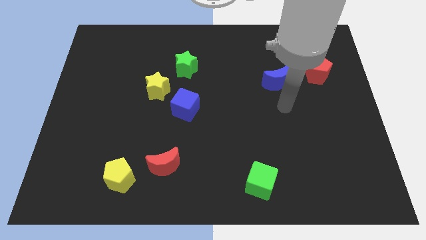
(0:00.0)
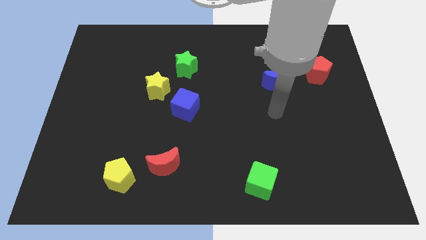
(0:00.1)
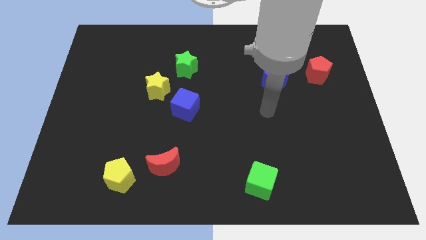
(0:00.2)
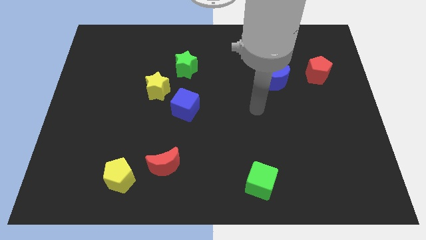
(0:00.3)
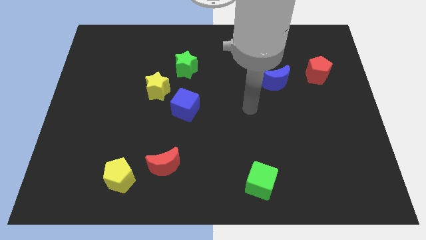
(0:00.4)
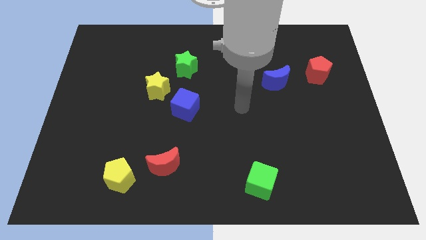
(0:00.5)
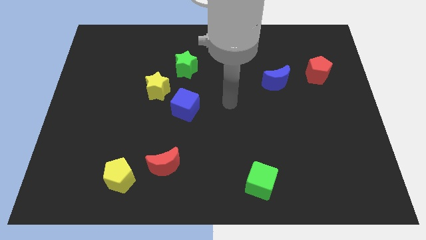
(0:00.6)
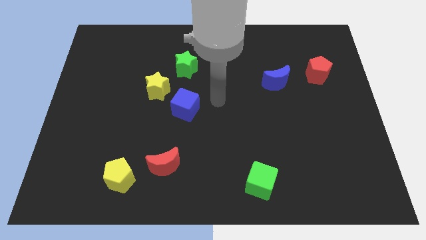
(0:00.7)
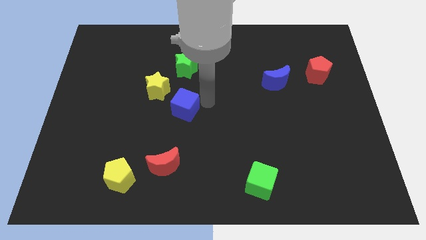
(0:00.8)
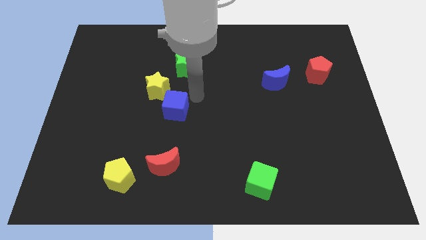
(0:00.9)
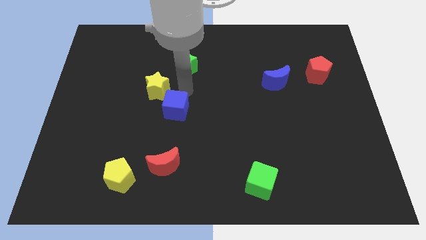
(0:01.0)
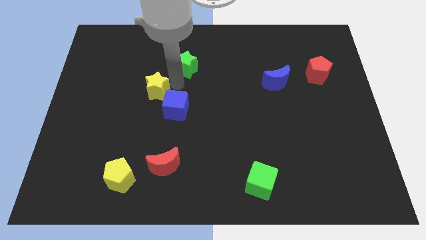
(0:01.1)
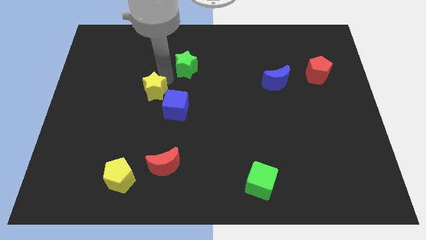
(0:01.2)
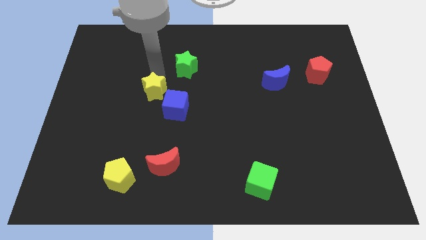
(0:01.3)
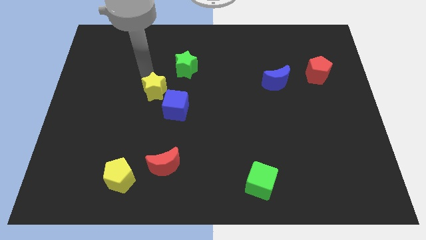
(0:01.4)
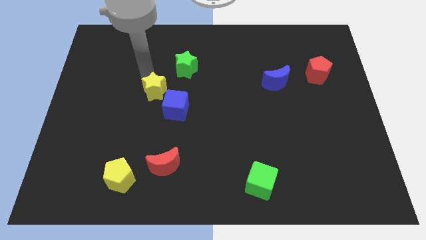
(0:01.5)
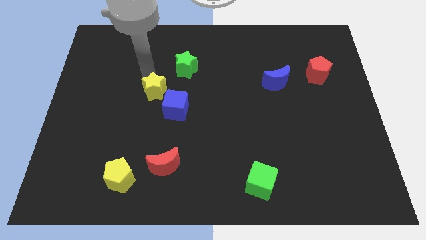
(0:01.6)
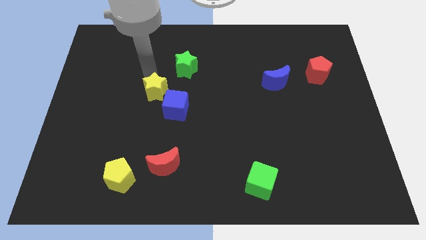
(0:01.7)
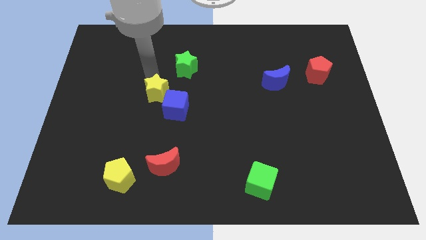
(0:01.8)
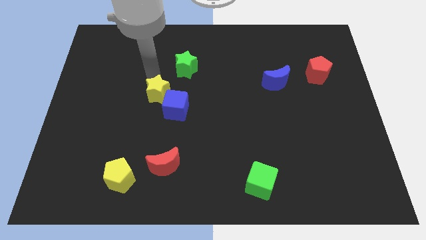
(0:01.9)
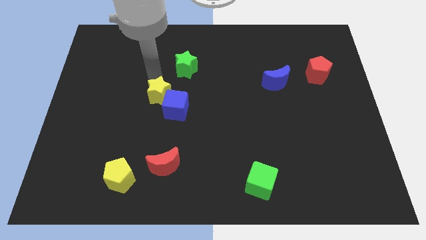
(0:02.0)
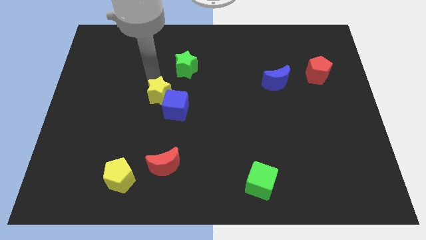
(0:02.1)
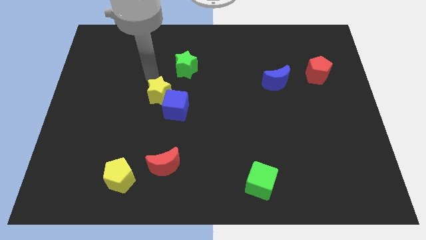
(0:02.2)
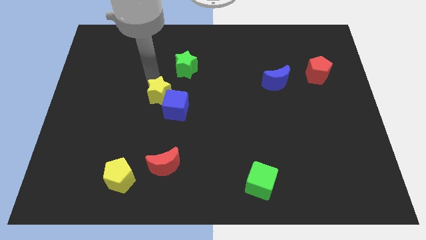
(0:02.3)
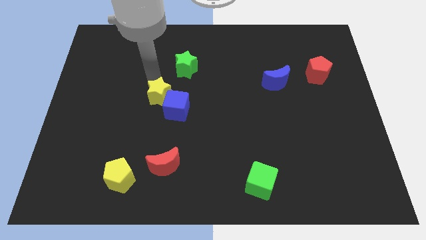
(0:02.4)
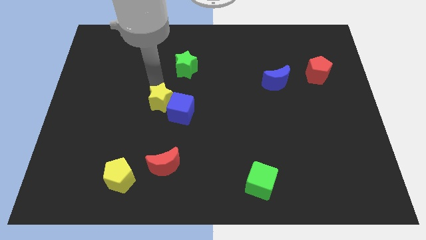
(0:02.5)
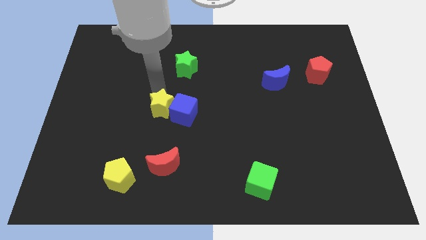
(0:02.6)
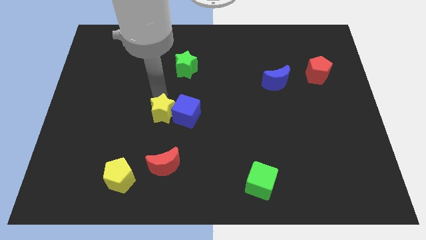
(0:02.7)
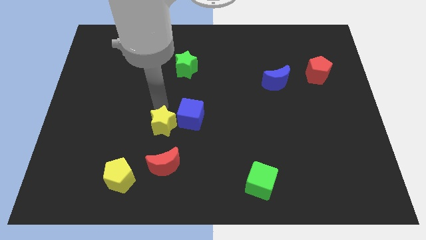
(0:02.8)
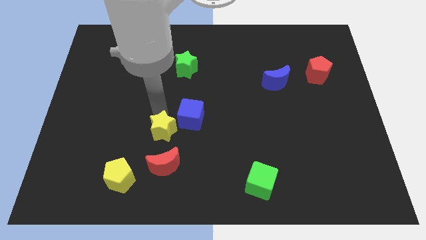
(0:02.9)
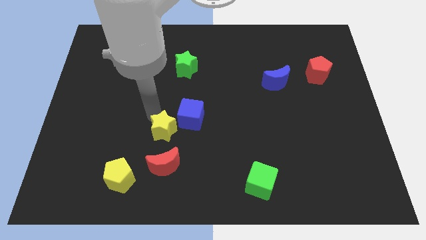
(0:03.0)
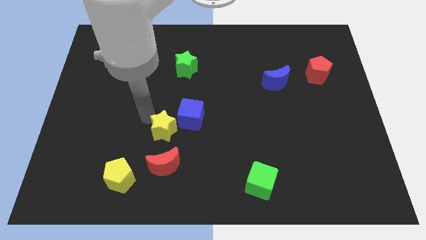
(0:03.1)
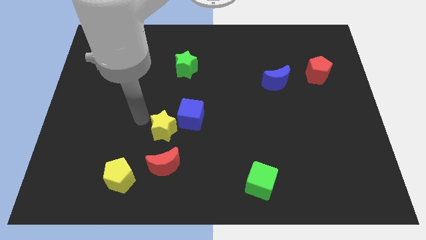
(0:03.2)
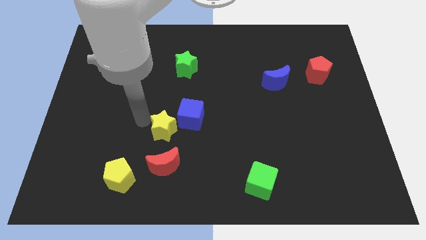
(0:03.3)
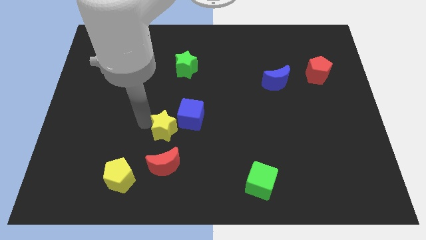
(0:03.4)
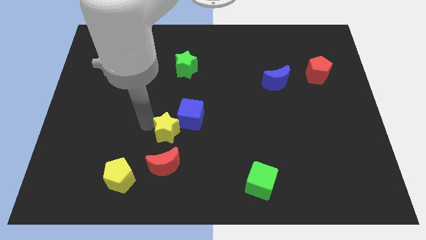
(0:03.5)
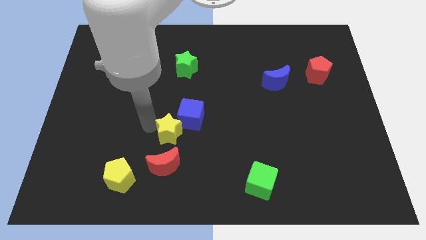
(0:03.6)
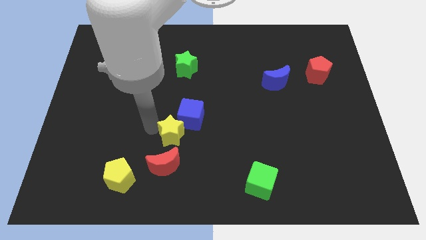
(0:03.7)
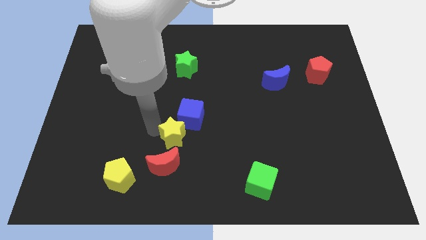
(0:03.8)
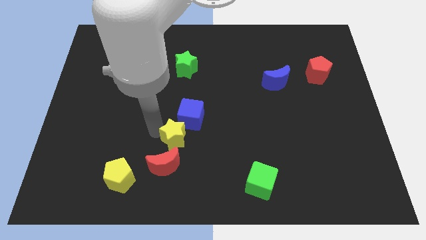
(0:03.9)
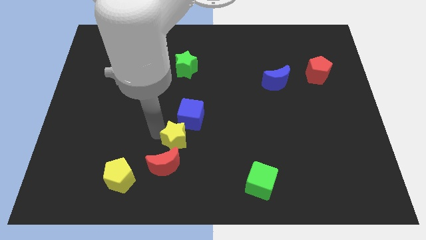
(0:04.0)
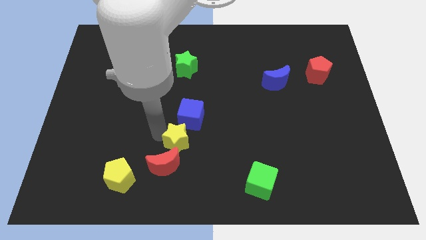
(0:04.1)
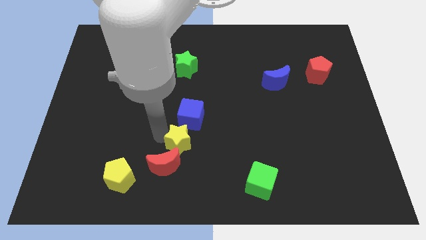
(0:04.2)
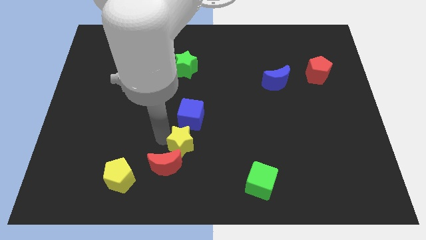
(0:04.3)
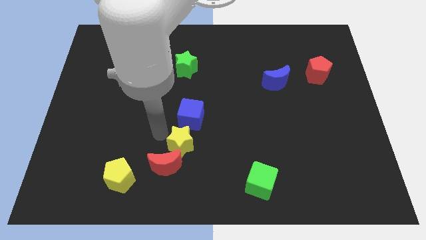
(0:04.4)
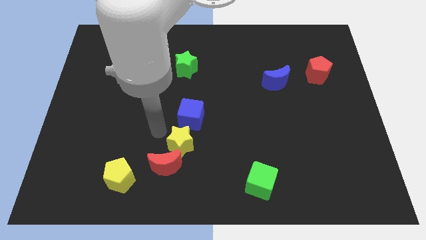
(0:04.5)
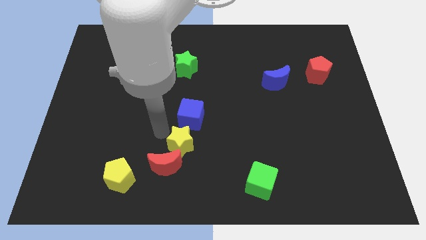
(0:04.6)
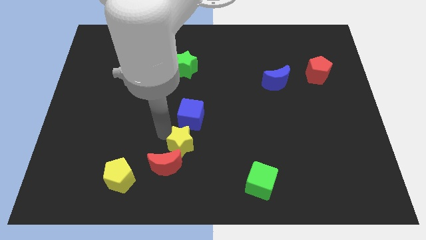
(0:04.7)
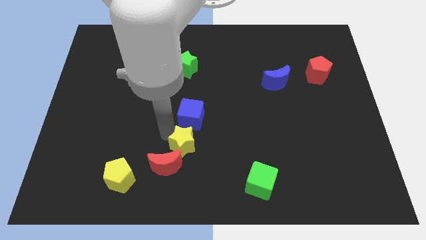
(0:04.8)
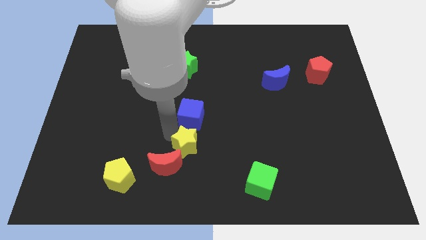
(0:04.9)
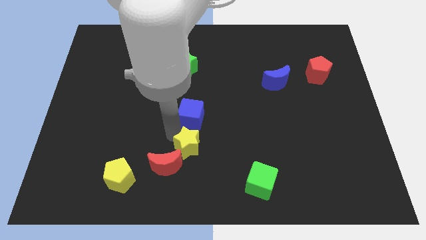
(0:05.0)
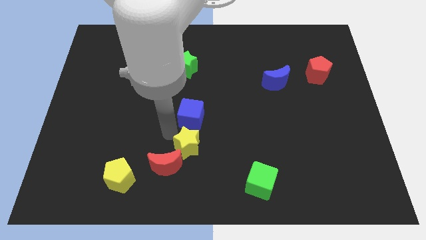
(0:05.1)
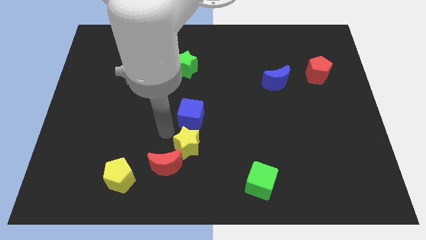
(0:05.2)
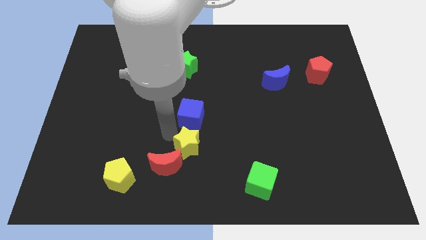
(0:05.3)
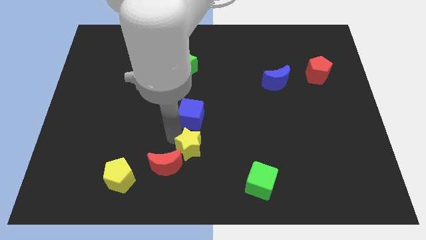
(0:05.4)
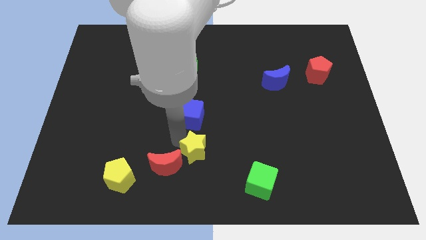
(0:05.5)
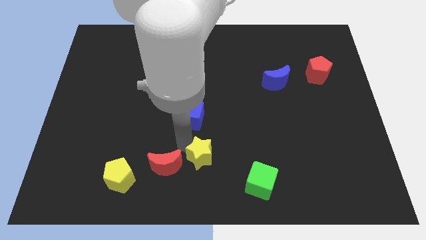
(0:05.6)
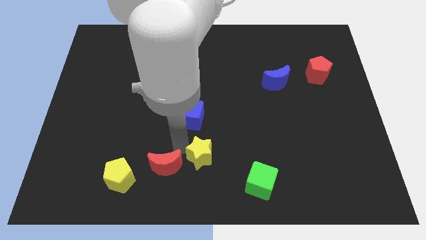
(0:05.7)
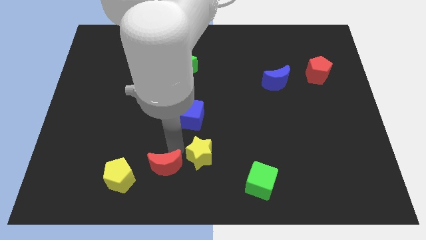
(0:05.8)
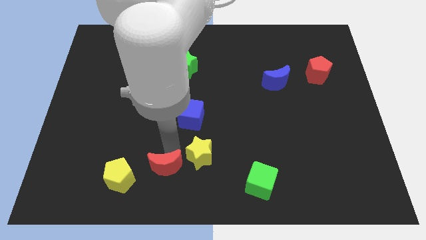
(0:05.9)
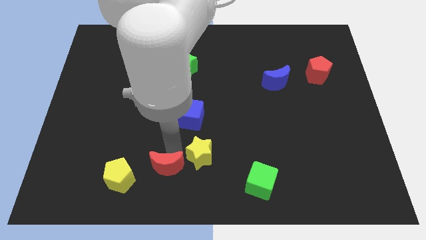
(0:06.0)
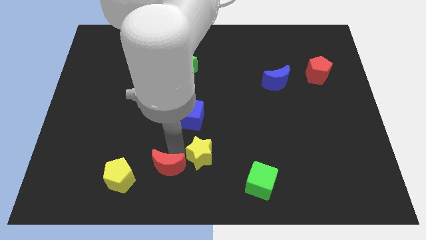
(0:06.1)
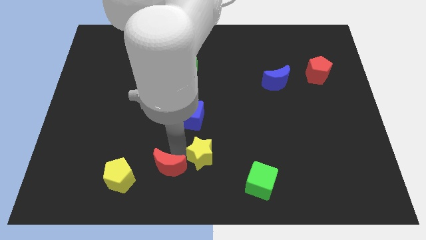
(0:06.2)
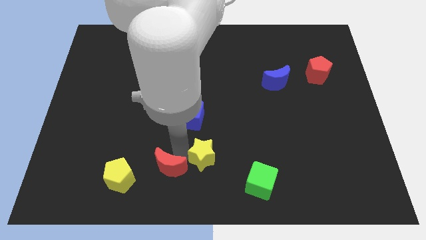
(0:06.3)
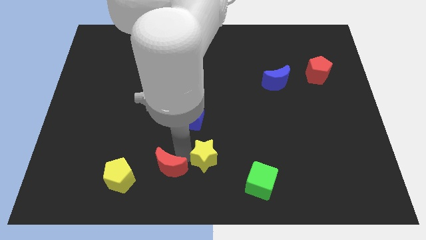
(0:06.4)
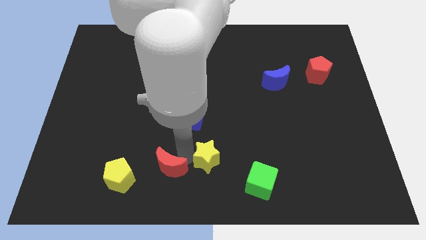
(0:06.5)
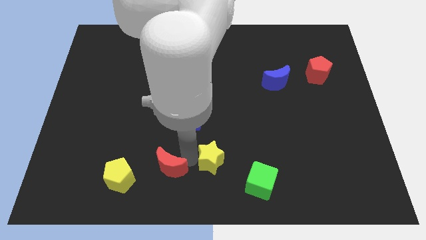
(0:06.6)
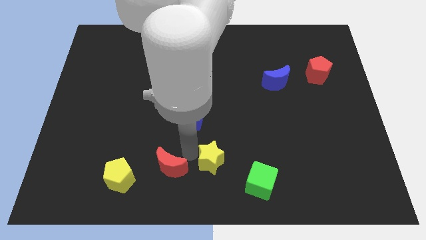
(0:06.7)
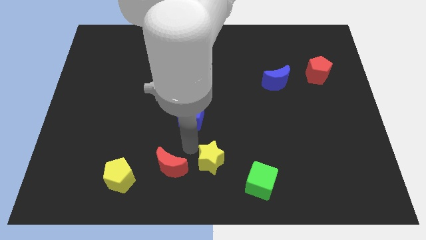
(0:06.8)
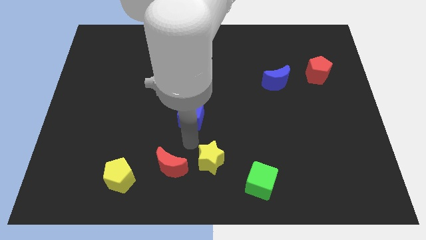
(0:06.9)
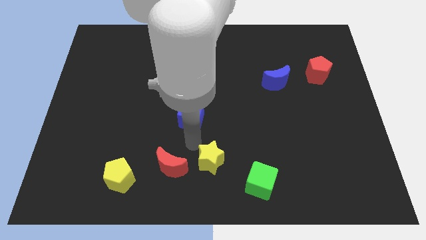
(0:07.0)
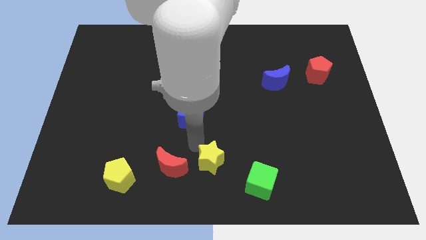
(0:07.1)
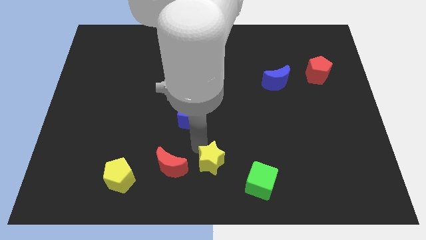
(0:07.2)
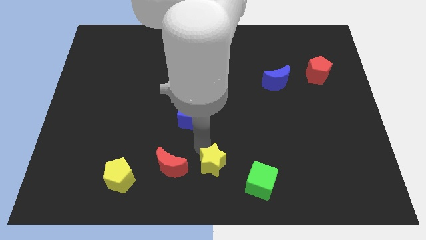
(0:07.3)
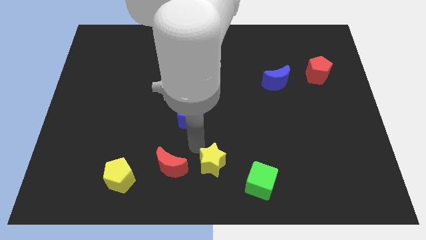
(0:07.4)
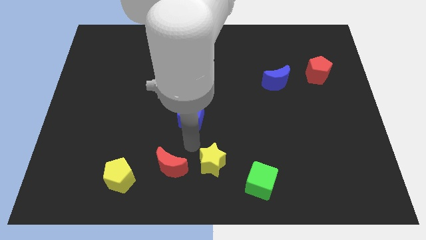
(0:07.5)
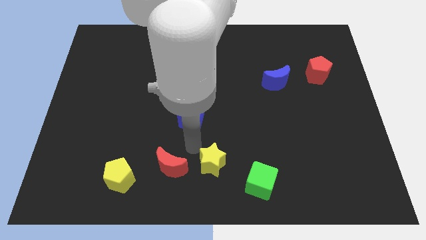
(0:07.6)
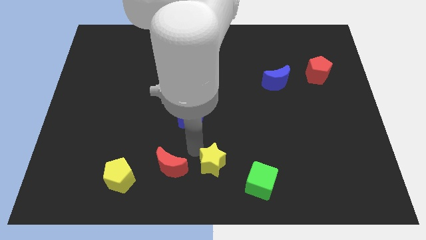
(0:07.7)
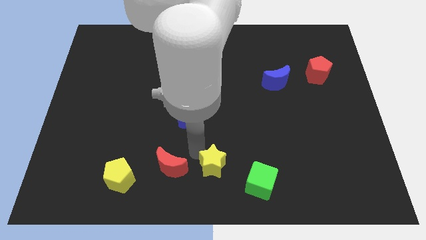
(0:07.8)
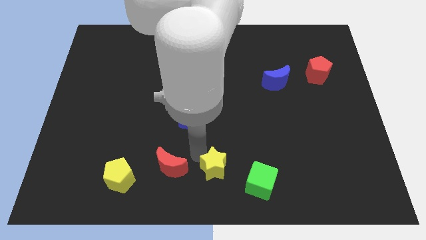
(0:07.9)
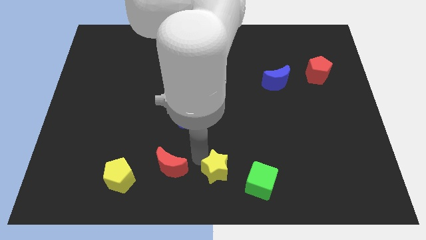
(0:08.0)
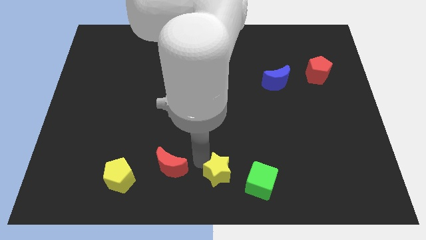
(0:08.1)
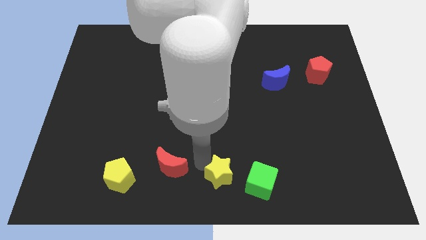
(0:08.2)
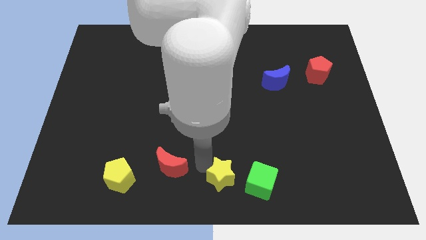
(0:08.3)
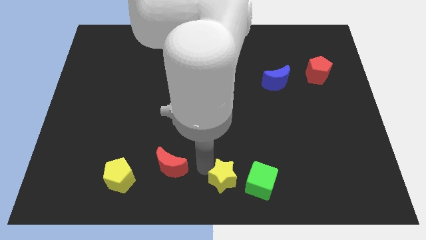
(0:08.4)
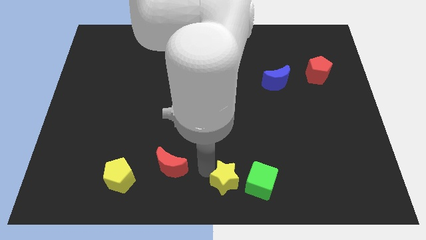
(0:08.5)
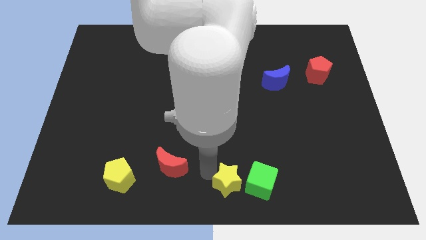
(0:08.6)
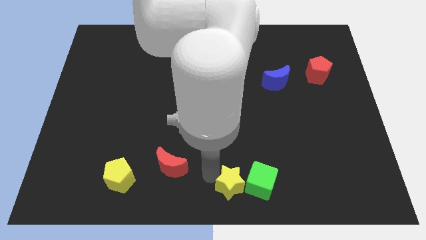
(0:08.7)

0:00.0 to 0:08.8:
put the yellow star next to the green cube
